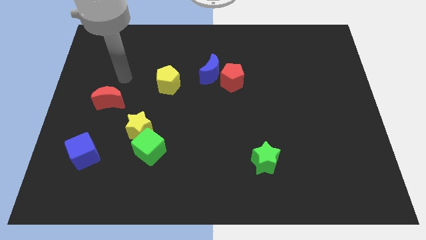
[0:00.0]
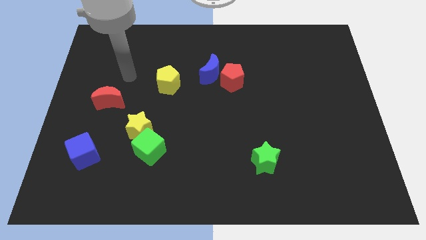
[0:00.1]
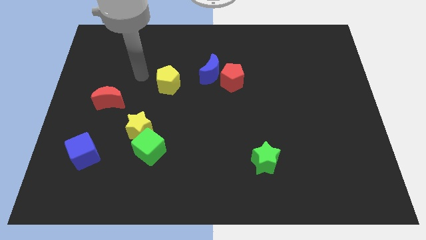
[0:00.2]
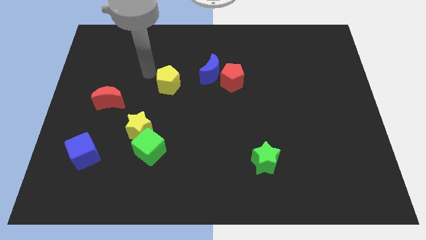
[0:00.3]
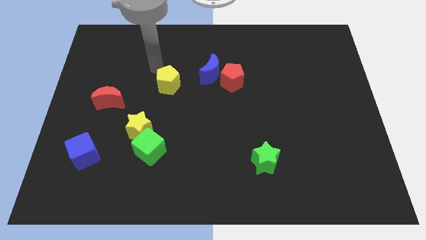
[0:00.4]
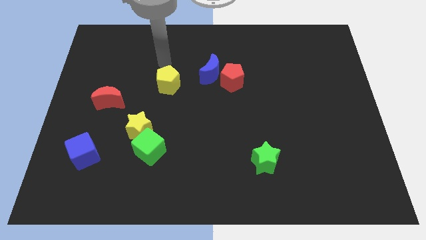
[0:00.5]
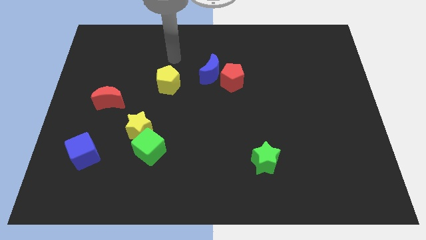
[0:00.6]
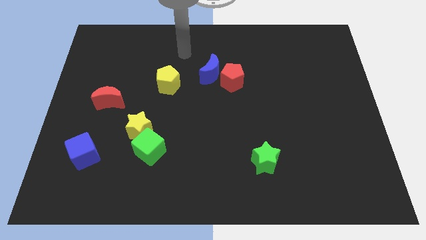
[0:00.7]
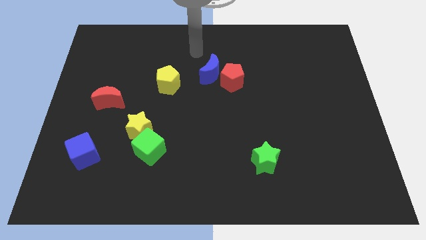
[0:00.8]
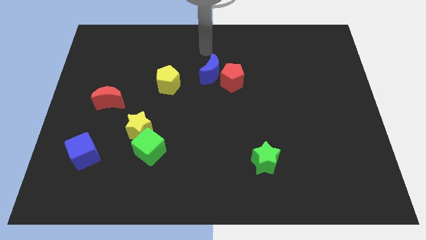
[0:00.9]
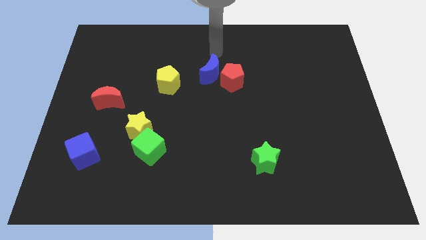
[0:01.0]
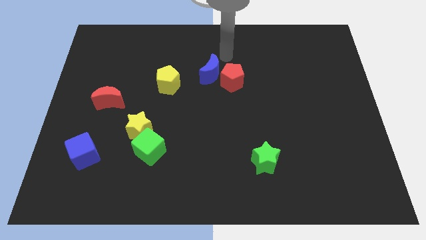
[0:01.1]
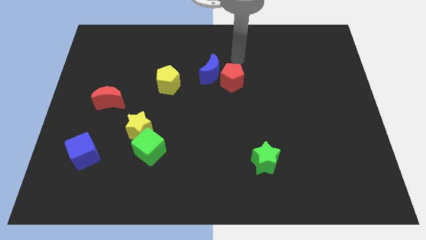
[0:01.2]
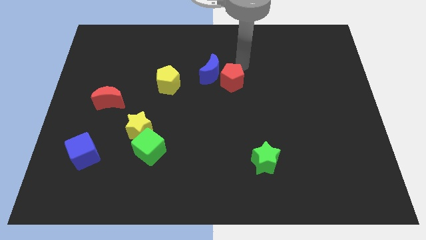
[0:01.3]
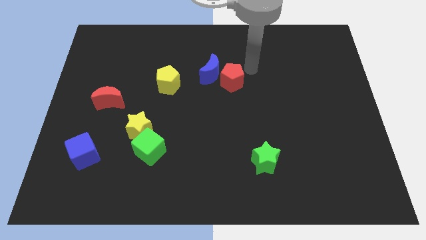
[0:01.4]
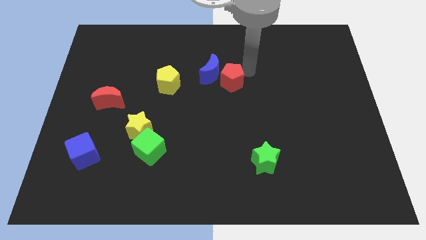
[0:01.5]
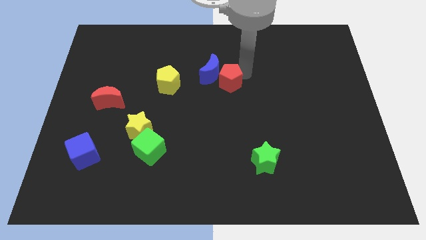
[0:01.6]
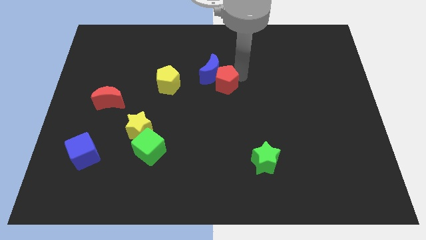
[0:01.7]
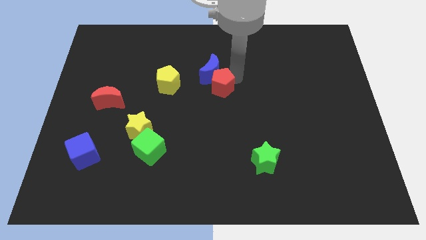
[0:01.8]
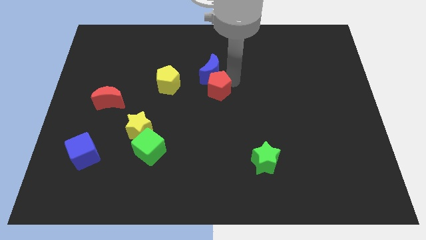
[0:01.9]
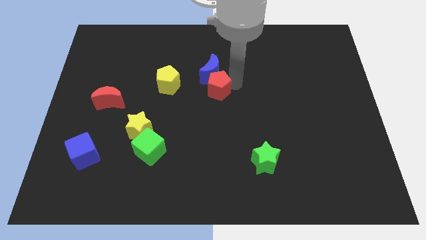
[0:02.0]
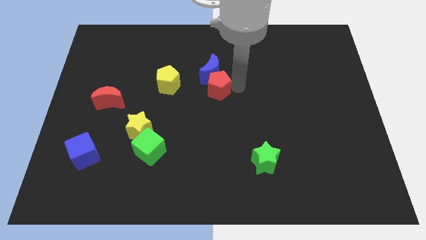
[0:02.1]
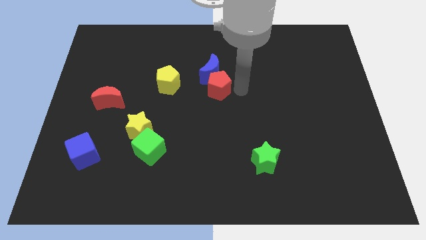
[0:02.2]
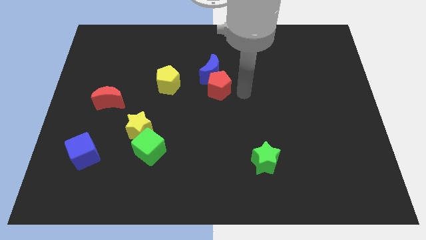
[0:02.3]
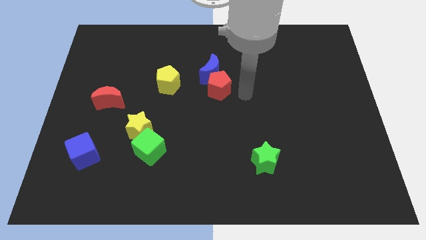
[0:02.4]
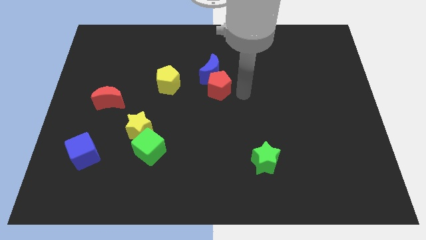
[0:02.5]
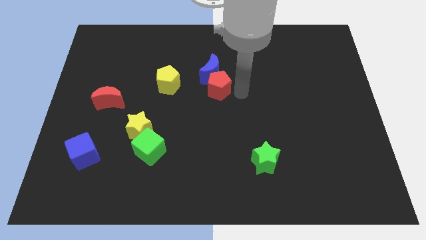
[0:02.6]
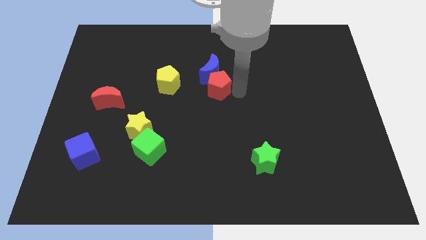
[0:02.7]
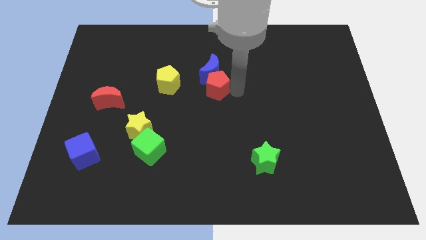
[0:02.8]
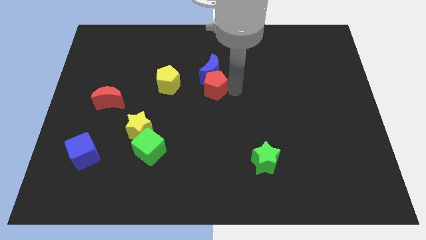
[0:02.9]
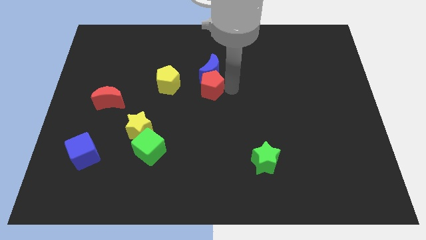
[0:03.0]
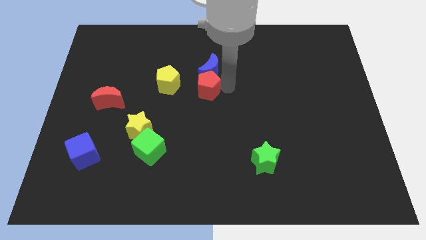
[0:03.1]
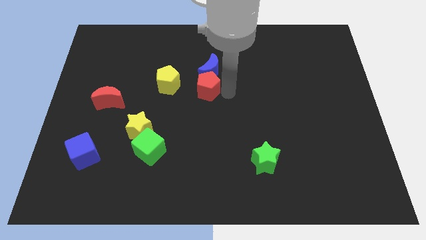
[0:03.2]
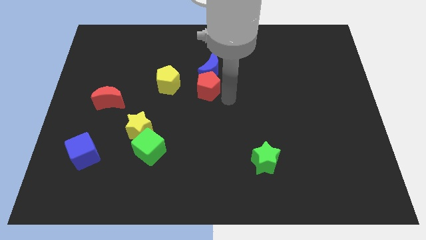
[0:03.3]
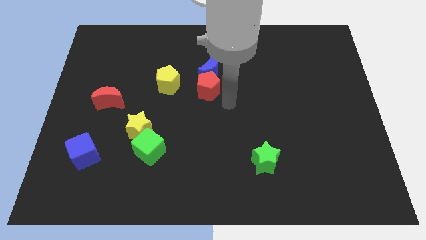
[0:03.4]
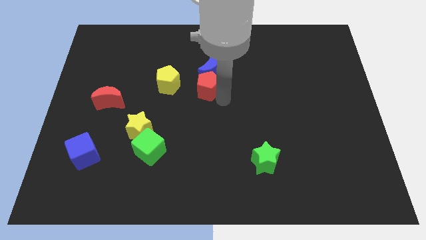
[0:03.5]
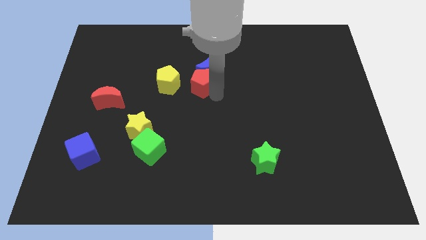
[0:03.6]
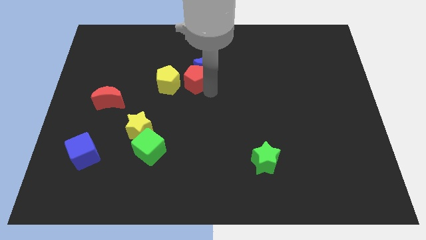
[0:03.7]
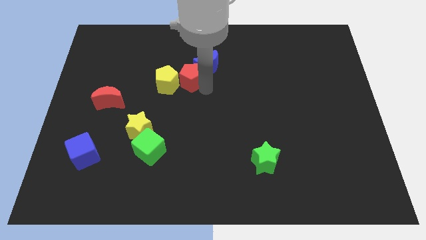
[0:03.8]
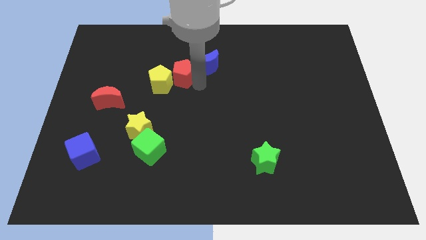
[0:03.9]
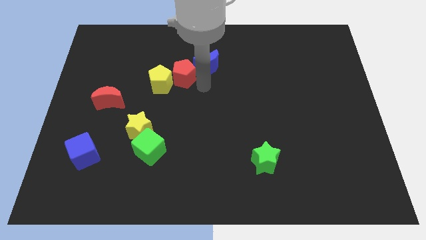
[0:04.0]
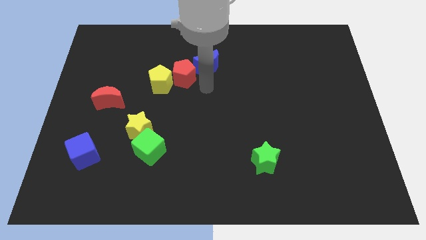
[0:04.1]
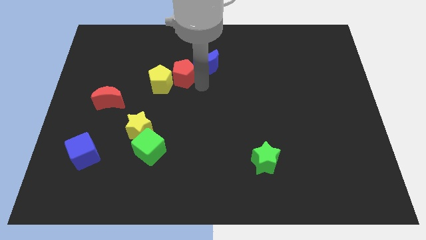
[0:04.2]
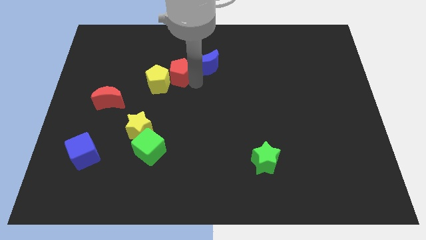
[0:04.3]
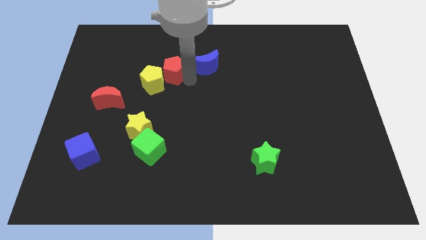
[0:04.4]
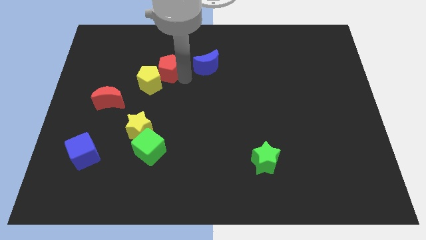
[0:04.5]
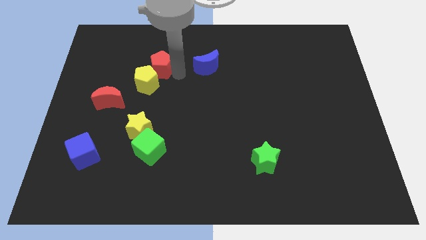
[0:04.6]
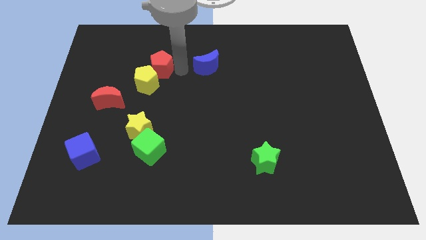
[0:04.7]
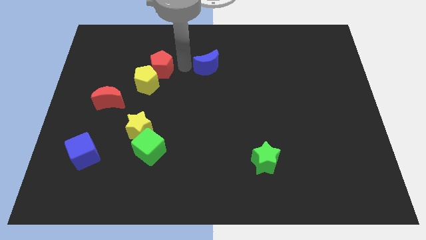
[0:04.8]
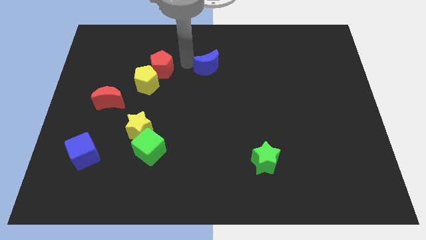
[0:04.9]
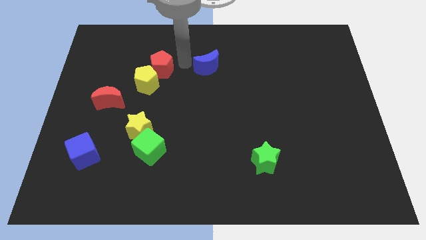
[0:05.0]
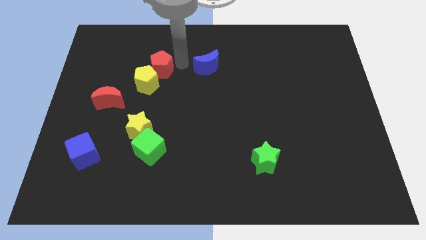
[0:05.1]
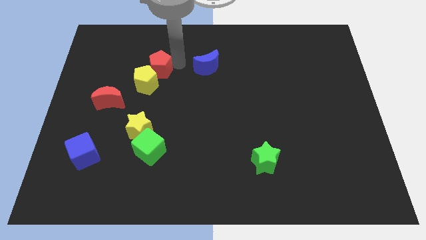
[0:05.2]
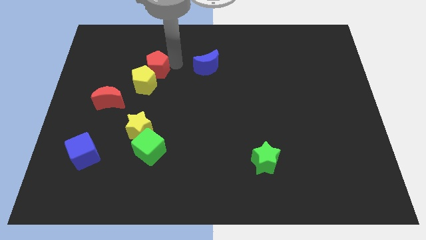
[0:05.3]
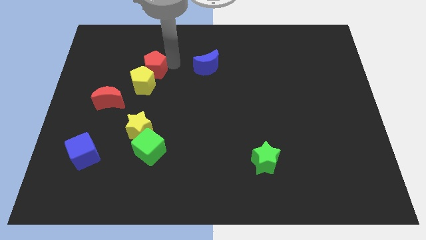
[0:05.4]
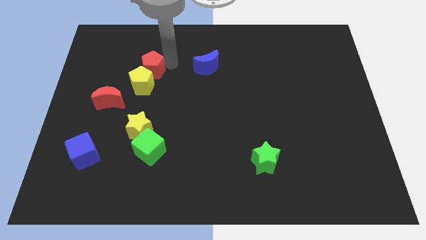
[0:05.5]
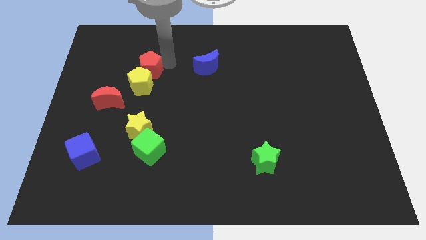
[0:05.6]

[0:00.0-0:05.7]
slide the red pentagon to the left

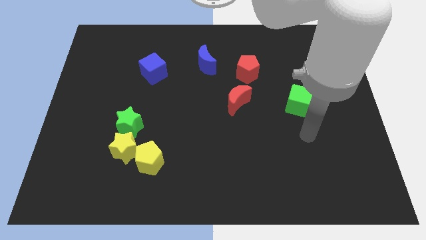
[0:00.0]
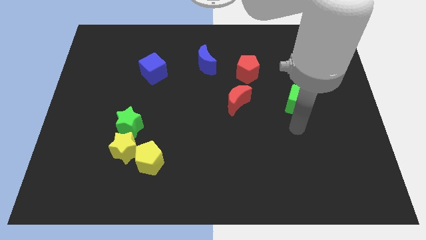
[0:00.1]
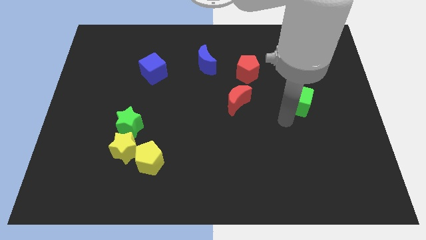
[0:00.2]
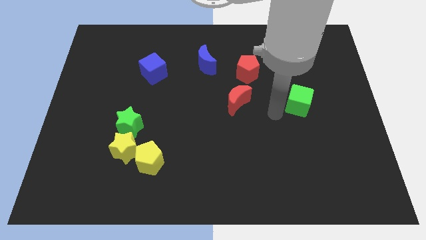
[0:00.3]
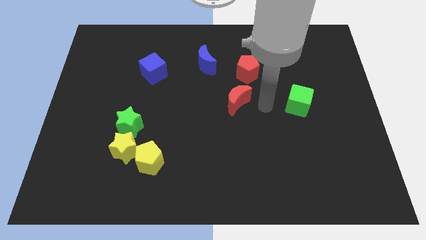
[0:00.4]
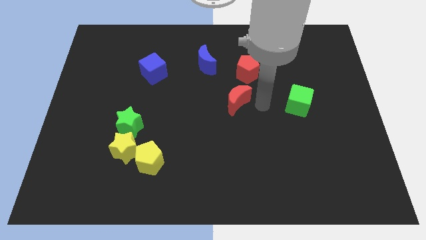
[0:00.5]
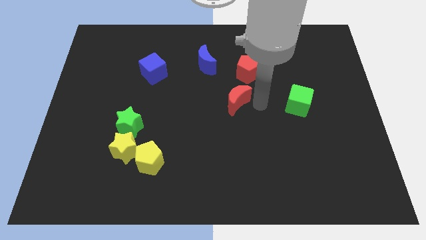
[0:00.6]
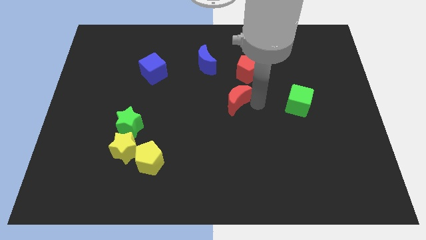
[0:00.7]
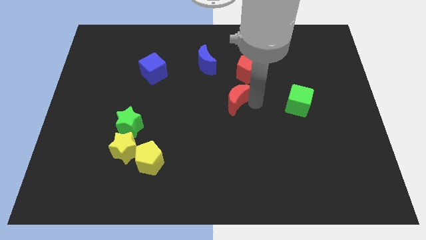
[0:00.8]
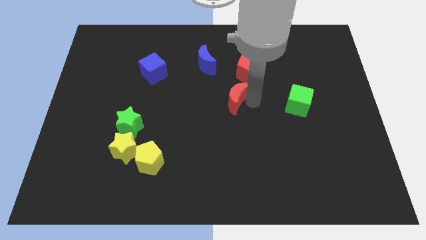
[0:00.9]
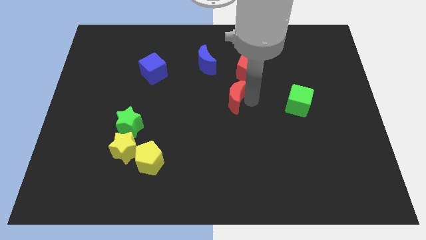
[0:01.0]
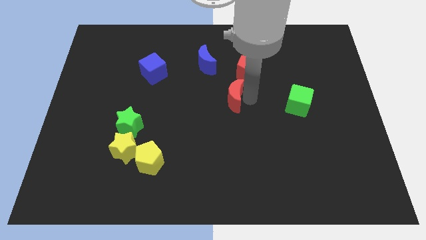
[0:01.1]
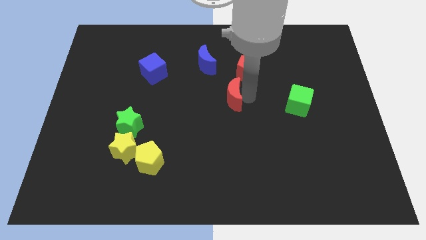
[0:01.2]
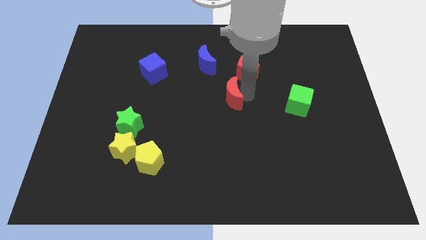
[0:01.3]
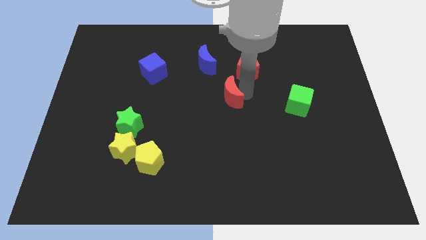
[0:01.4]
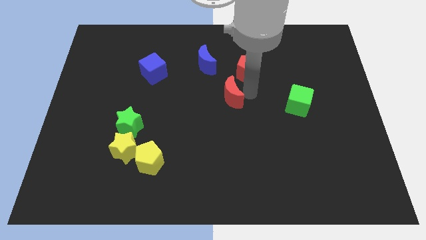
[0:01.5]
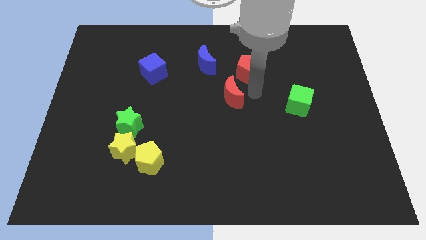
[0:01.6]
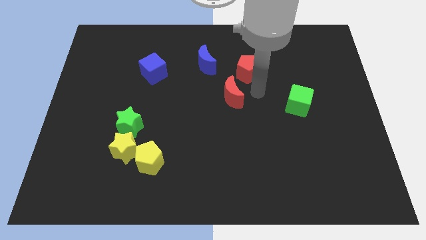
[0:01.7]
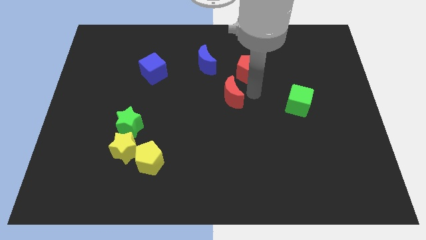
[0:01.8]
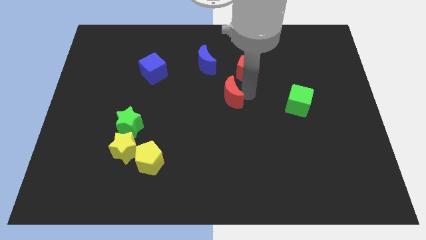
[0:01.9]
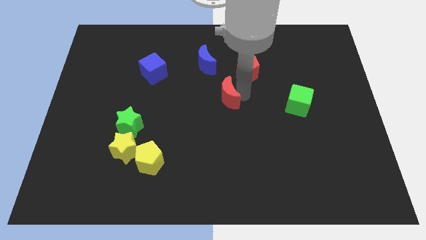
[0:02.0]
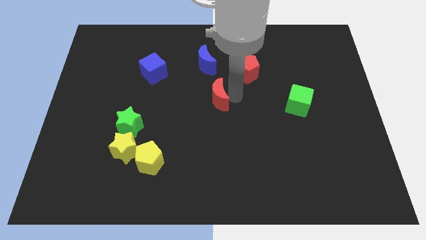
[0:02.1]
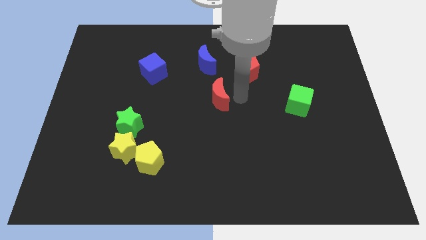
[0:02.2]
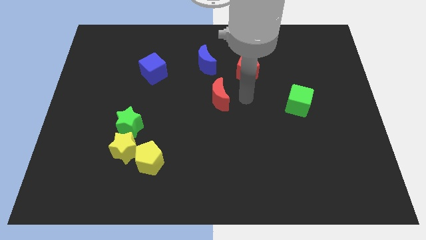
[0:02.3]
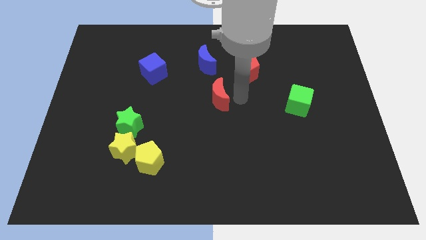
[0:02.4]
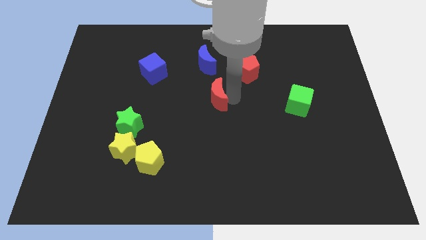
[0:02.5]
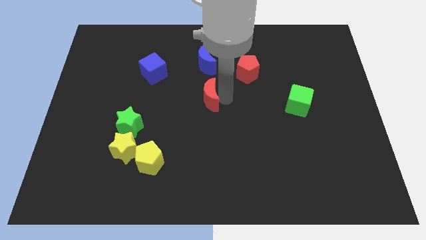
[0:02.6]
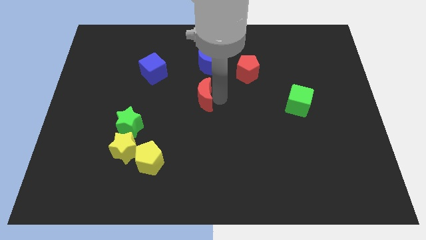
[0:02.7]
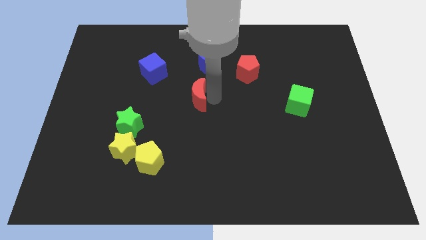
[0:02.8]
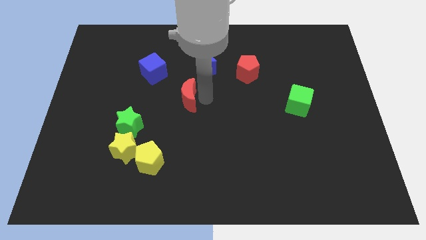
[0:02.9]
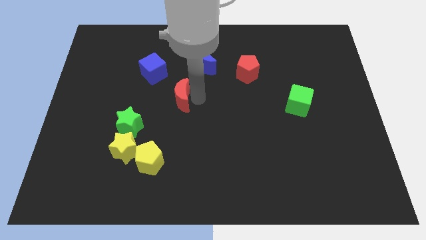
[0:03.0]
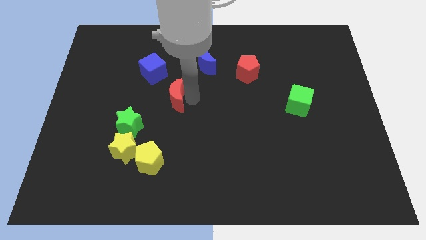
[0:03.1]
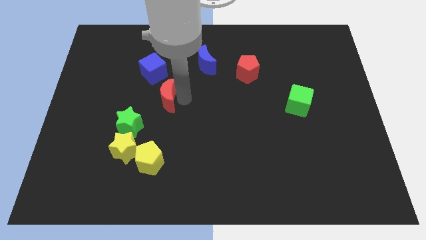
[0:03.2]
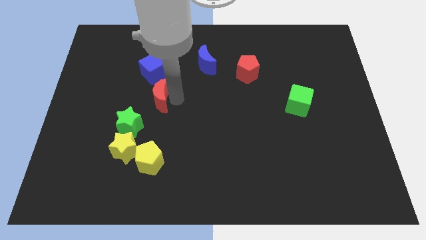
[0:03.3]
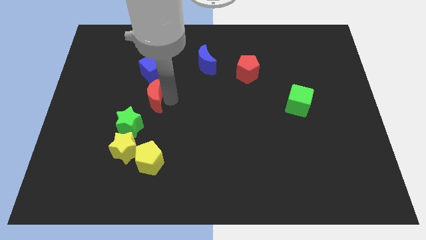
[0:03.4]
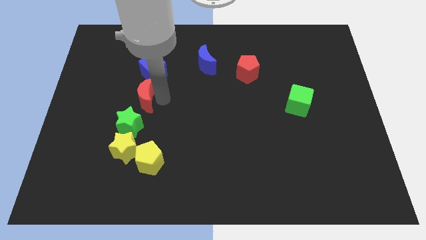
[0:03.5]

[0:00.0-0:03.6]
move the red moon to the left
